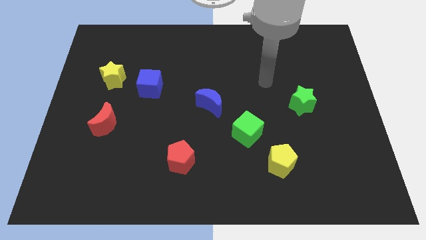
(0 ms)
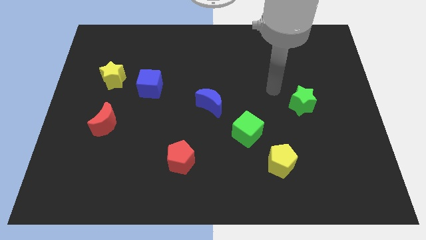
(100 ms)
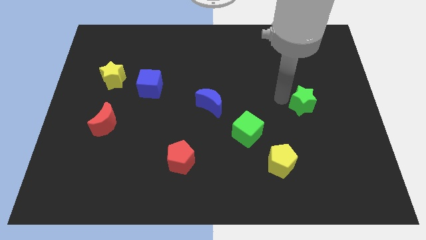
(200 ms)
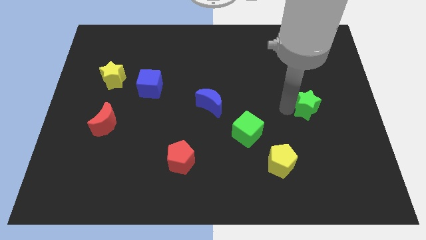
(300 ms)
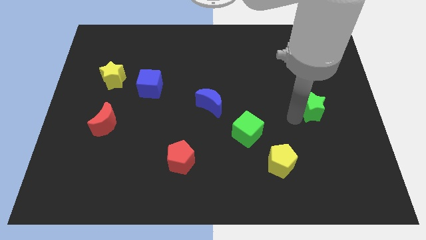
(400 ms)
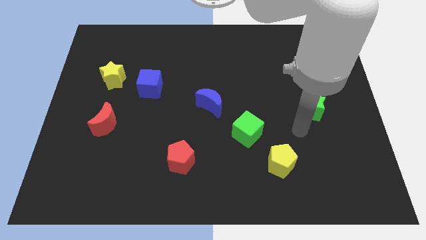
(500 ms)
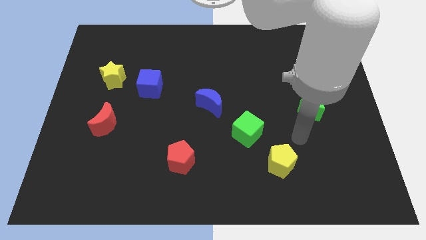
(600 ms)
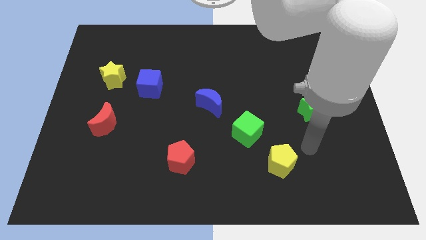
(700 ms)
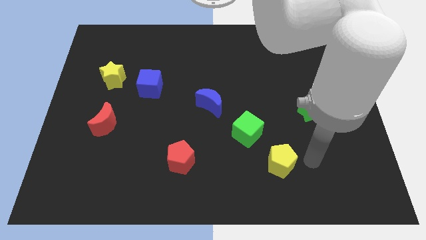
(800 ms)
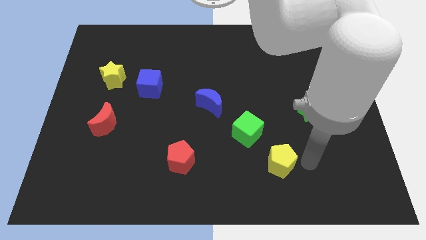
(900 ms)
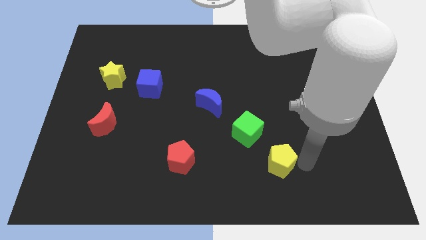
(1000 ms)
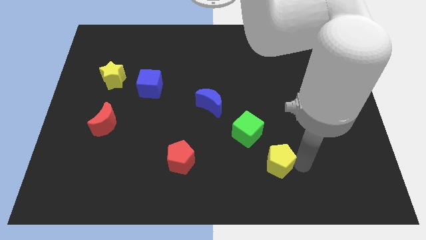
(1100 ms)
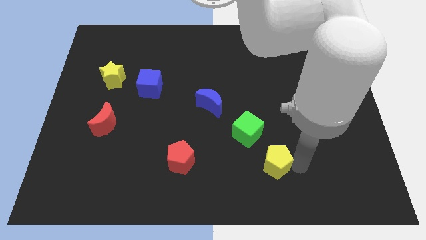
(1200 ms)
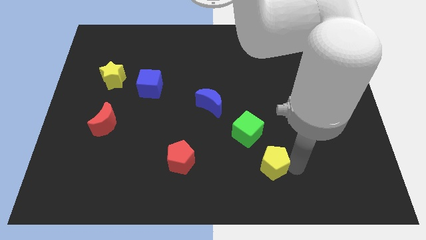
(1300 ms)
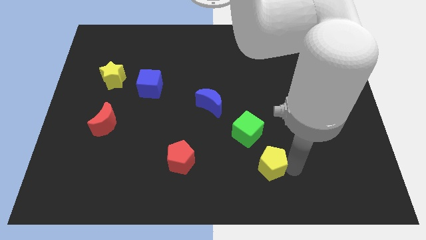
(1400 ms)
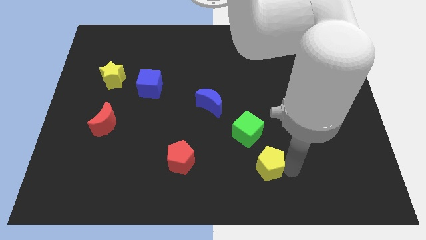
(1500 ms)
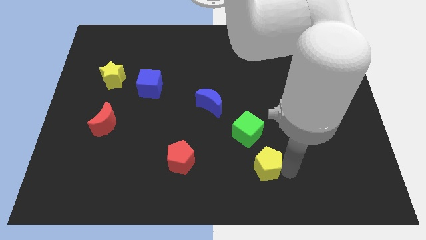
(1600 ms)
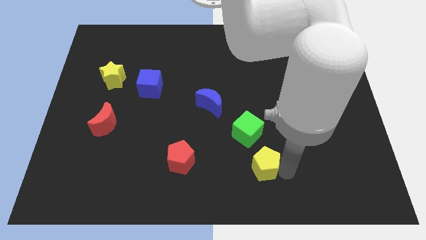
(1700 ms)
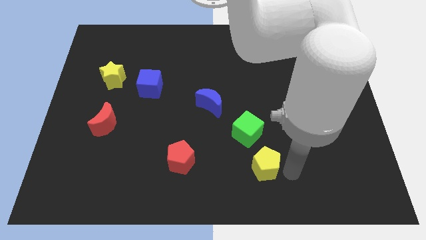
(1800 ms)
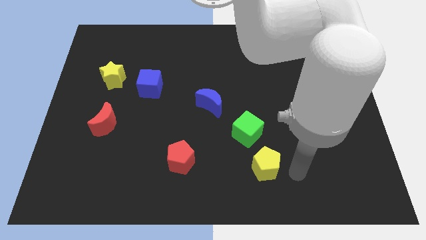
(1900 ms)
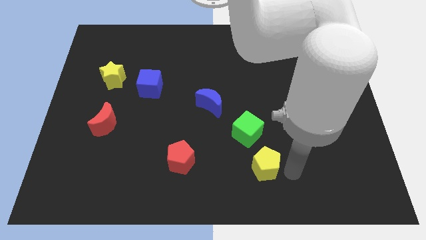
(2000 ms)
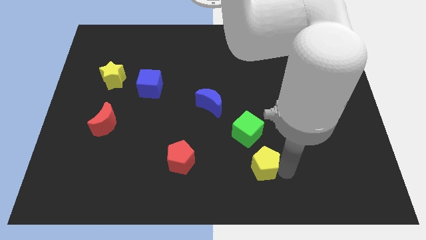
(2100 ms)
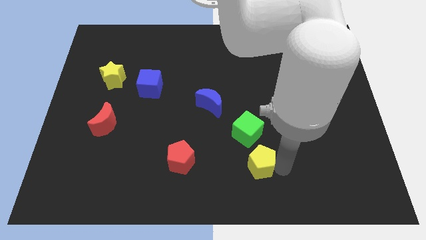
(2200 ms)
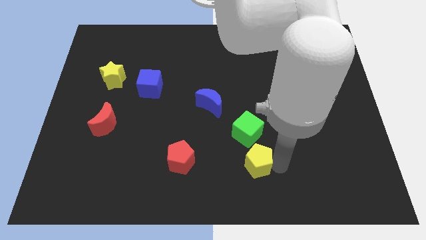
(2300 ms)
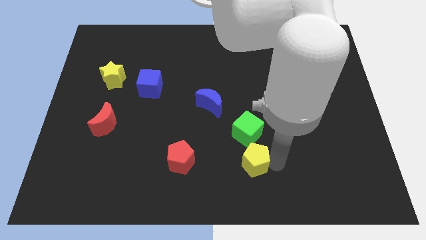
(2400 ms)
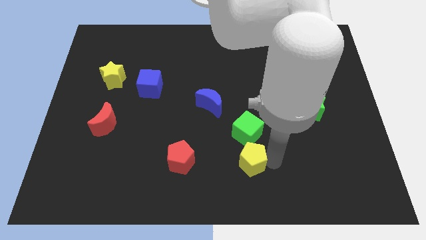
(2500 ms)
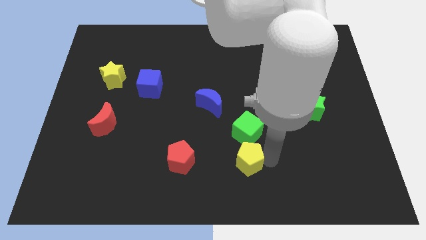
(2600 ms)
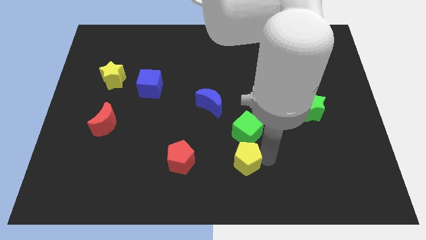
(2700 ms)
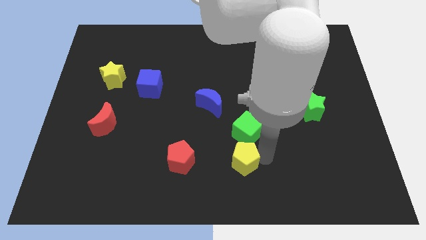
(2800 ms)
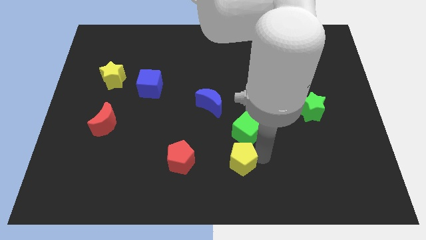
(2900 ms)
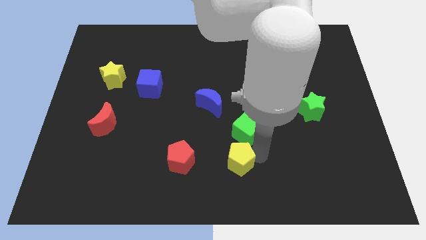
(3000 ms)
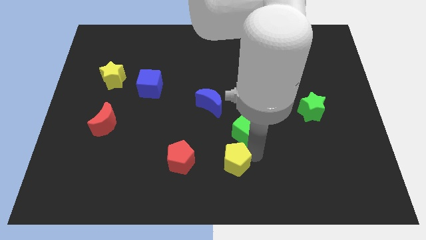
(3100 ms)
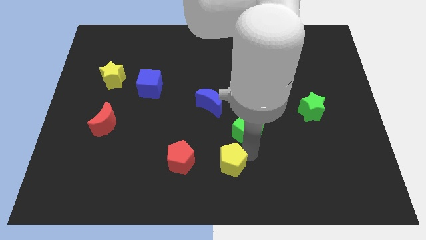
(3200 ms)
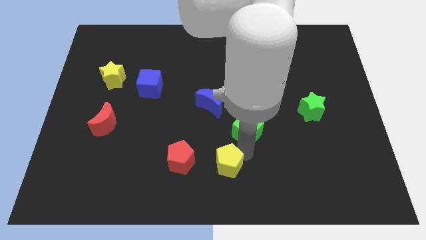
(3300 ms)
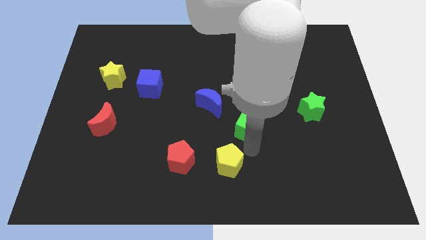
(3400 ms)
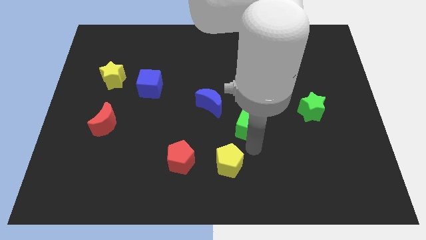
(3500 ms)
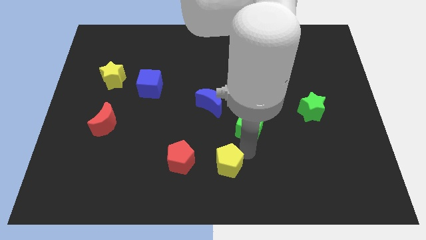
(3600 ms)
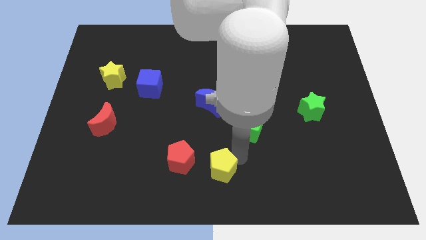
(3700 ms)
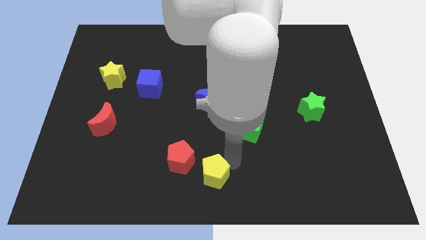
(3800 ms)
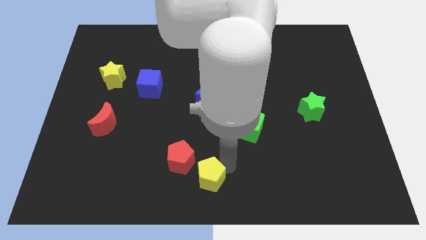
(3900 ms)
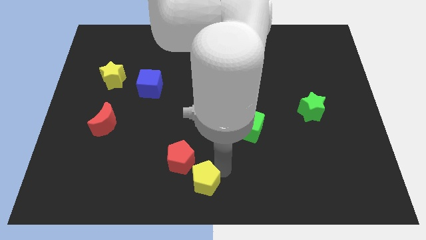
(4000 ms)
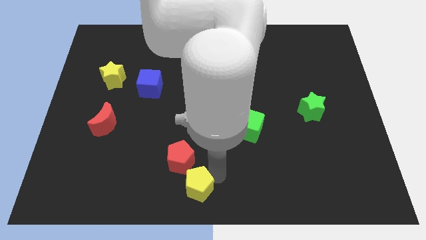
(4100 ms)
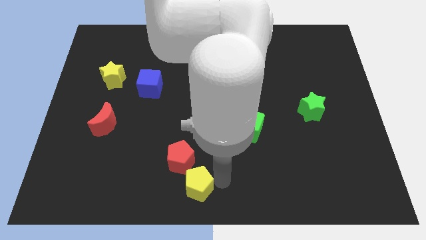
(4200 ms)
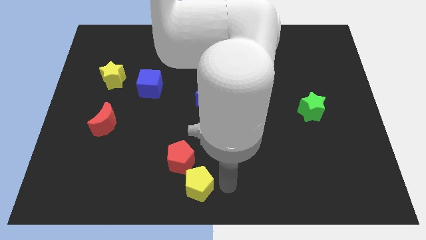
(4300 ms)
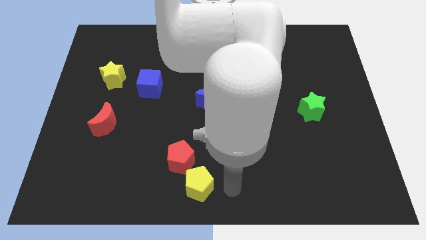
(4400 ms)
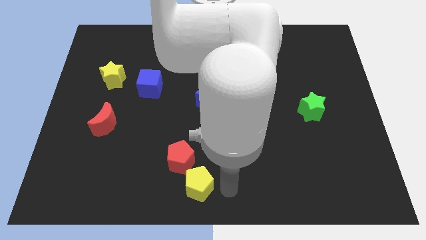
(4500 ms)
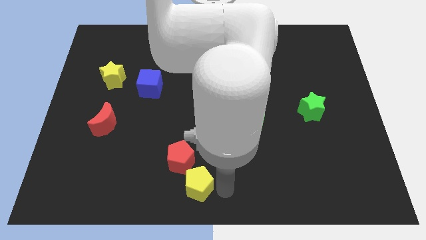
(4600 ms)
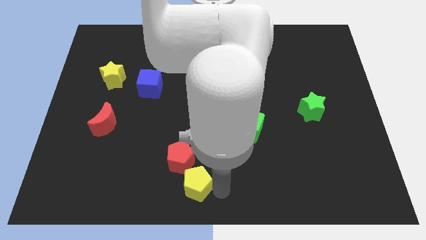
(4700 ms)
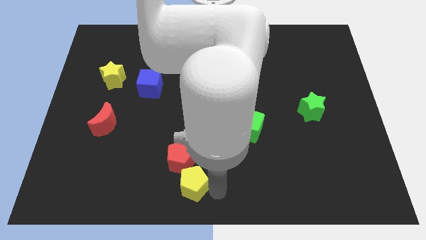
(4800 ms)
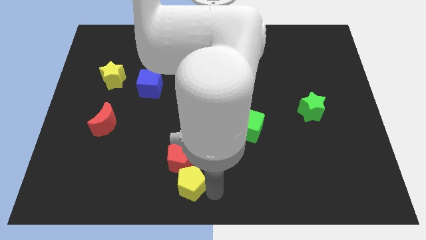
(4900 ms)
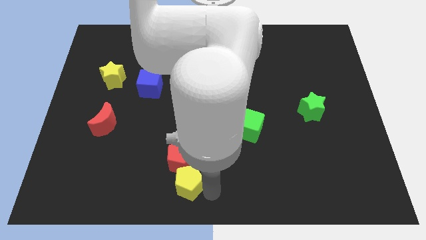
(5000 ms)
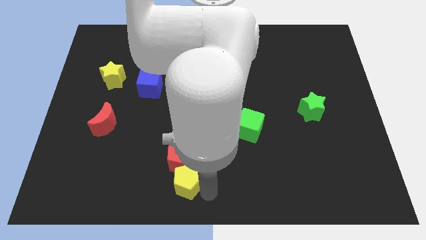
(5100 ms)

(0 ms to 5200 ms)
slide the yellow pentagon to the bottom left of the red pentagon

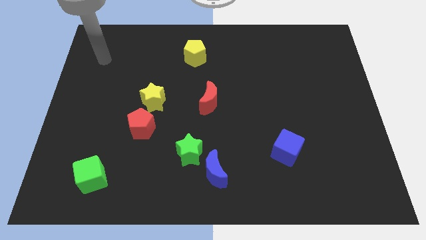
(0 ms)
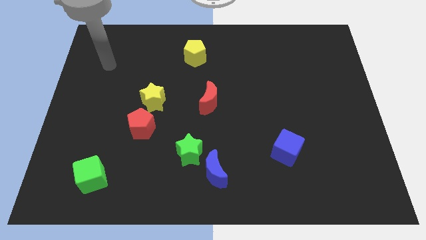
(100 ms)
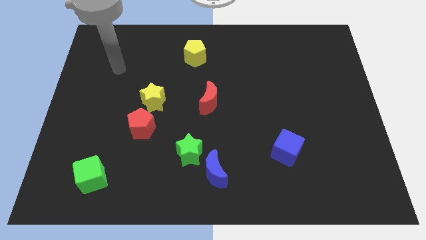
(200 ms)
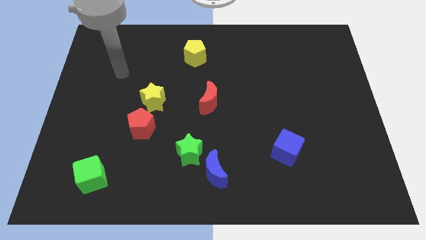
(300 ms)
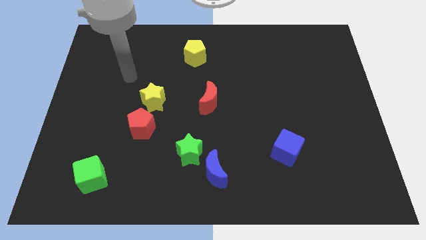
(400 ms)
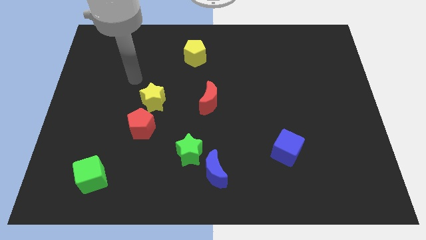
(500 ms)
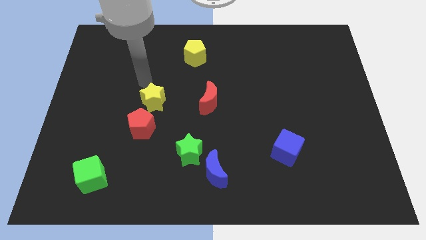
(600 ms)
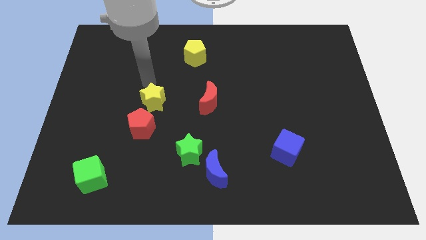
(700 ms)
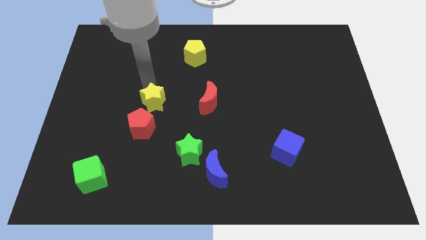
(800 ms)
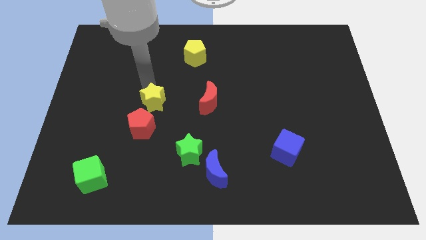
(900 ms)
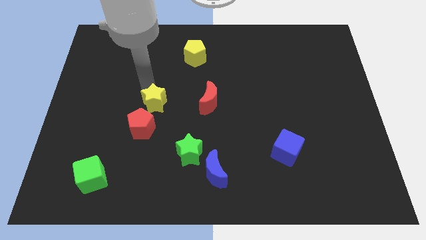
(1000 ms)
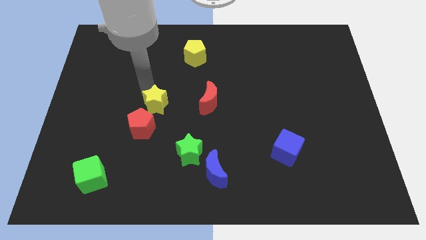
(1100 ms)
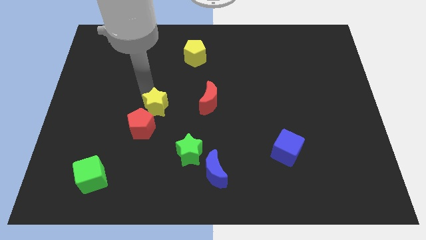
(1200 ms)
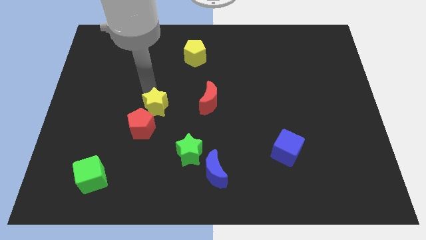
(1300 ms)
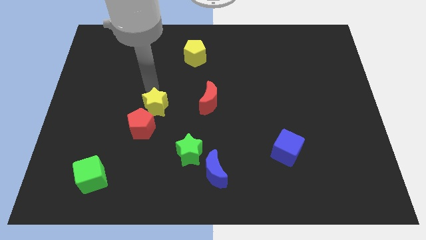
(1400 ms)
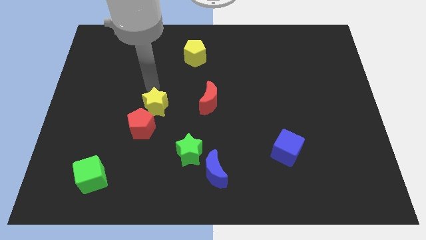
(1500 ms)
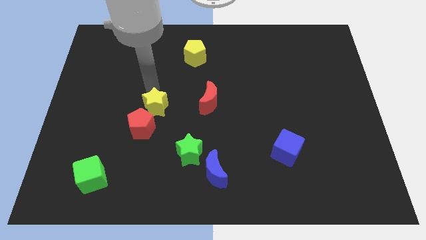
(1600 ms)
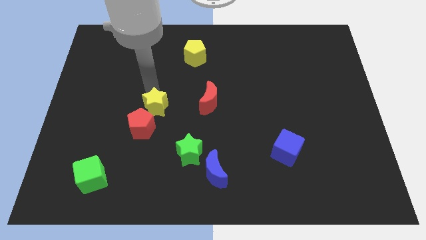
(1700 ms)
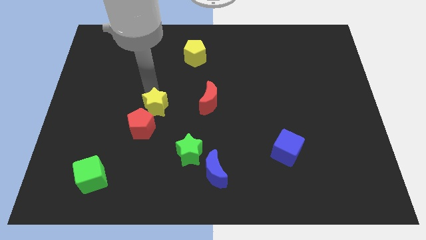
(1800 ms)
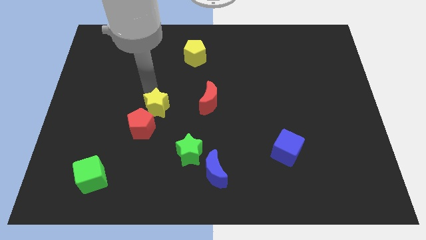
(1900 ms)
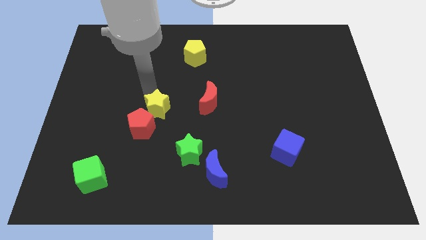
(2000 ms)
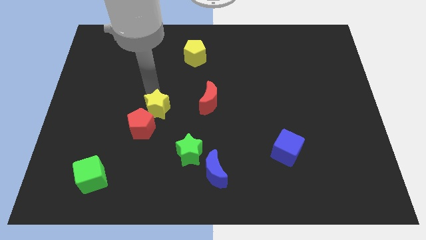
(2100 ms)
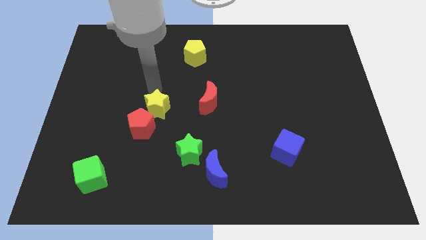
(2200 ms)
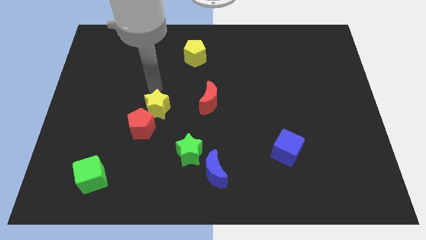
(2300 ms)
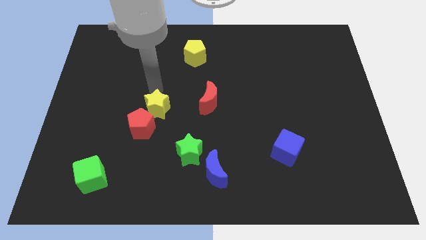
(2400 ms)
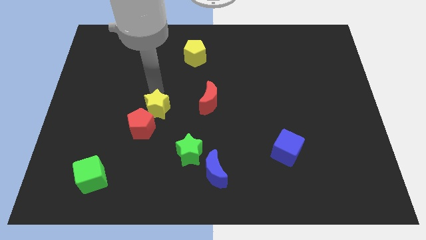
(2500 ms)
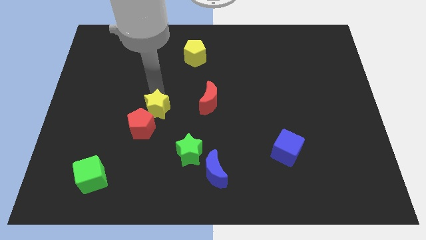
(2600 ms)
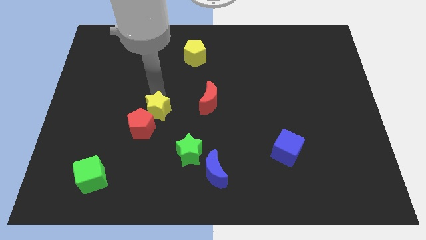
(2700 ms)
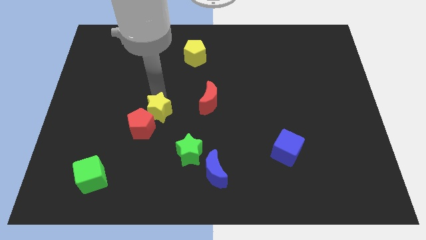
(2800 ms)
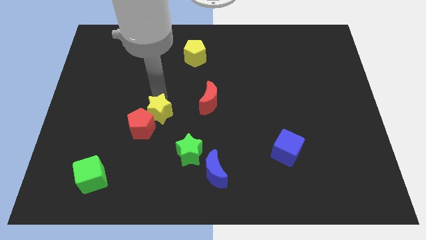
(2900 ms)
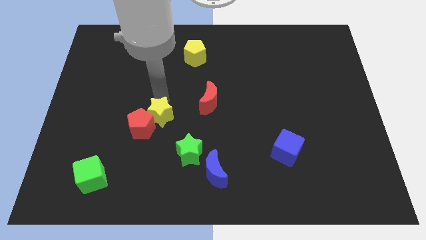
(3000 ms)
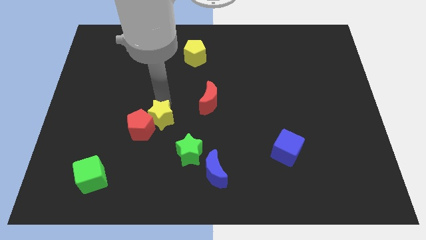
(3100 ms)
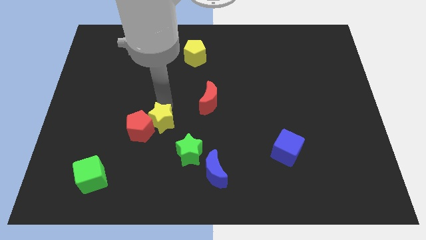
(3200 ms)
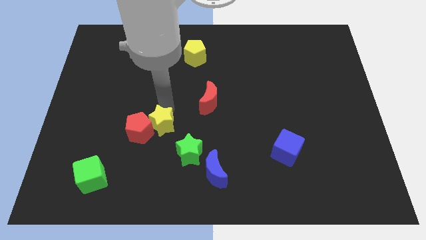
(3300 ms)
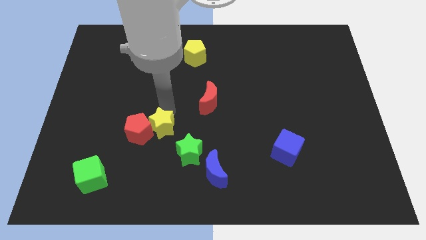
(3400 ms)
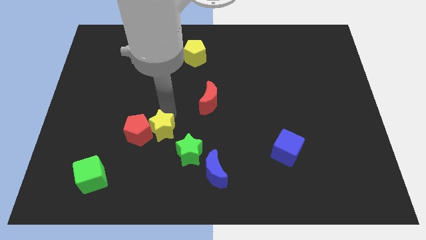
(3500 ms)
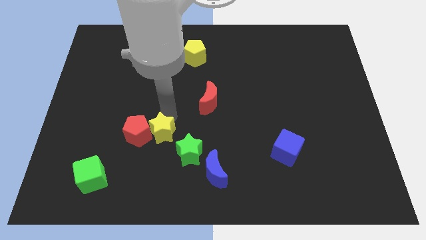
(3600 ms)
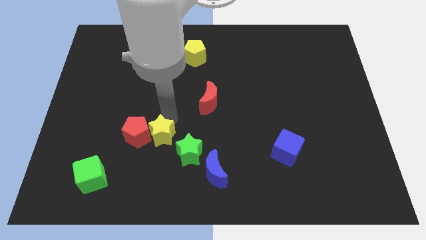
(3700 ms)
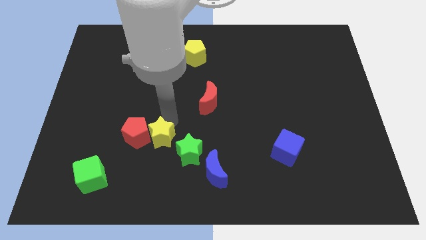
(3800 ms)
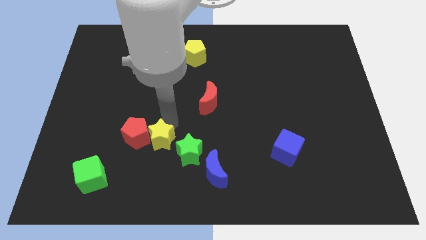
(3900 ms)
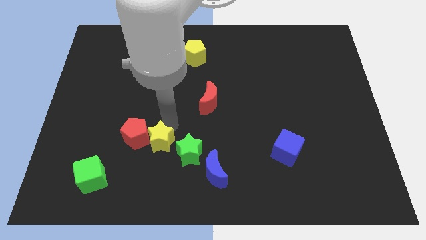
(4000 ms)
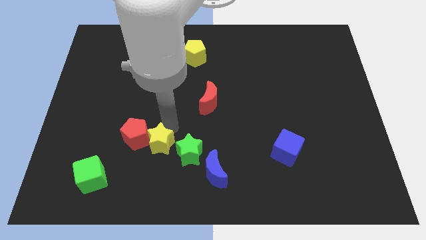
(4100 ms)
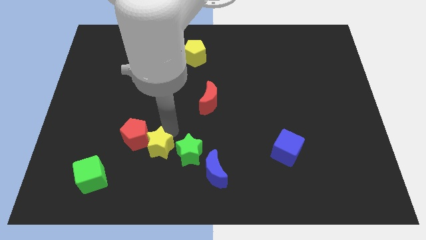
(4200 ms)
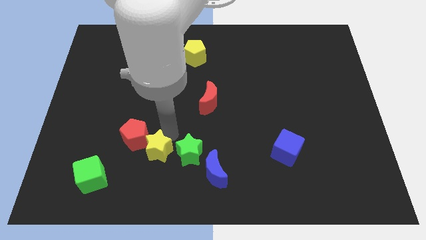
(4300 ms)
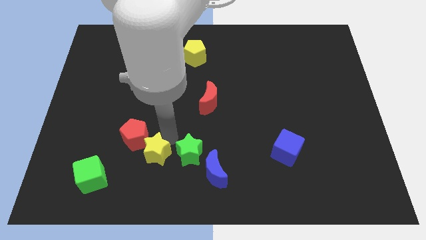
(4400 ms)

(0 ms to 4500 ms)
move the yellow star to the bottom side of the red pentagon
